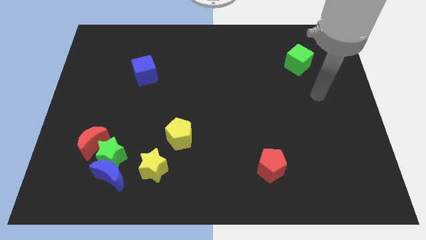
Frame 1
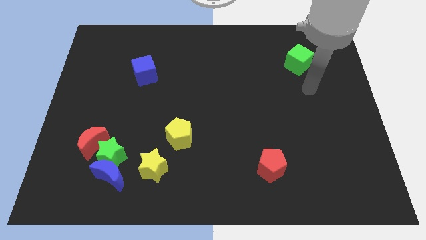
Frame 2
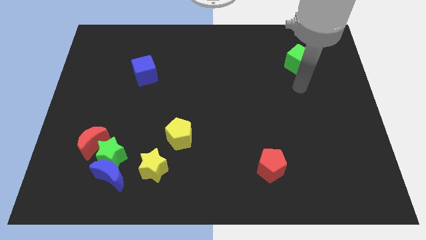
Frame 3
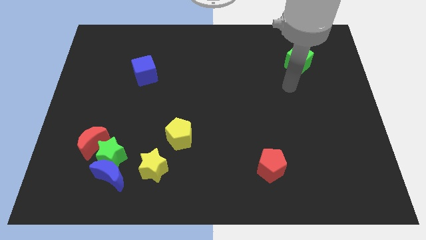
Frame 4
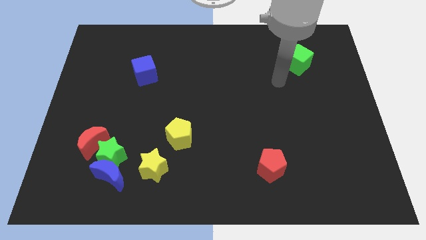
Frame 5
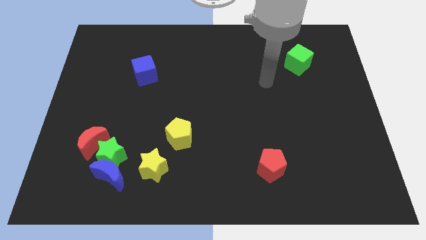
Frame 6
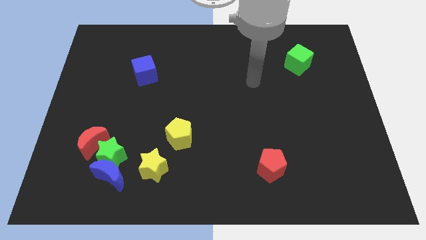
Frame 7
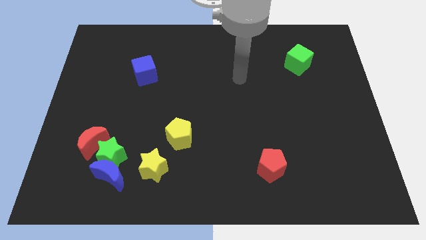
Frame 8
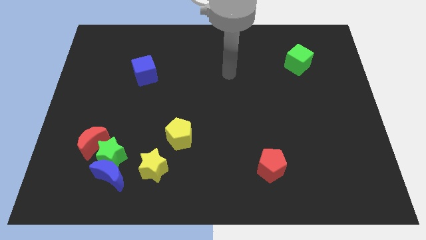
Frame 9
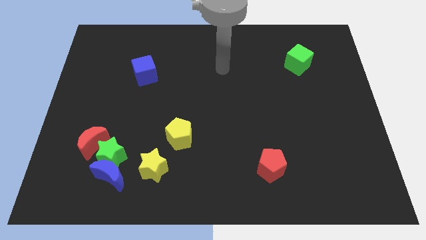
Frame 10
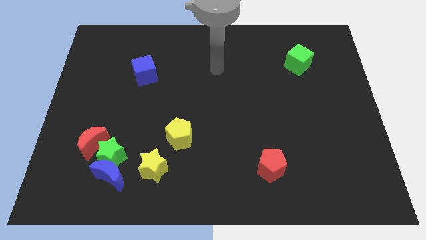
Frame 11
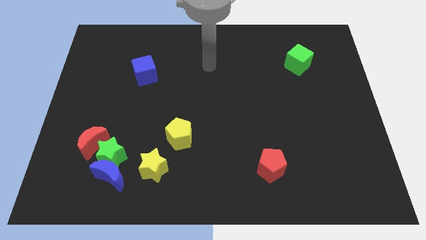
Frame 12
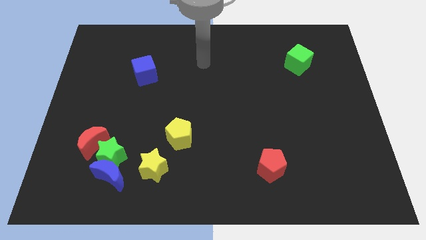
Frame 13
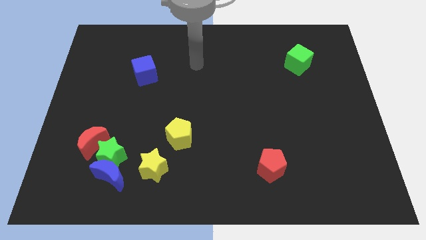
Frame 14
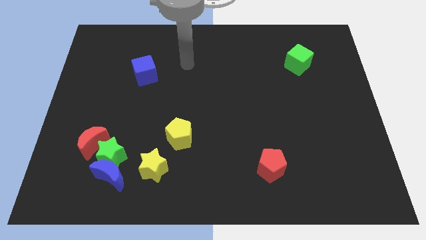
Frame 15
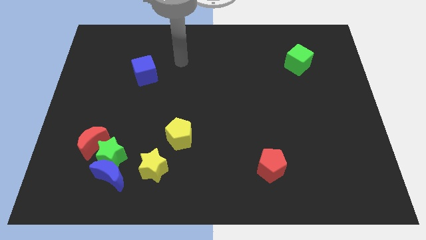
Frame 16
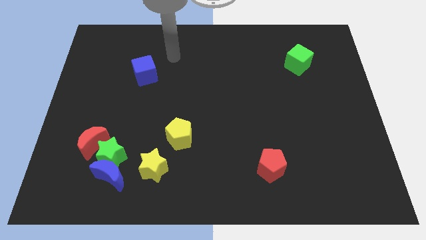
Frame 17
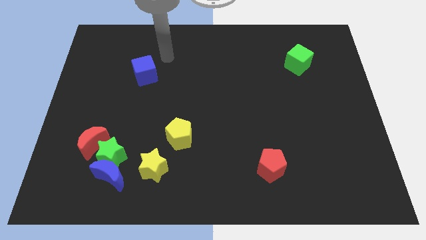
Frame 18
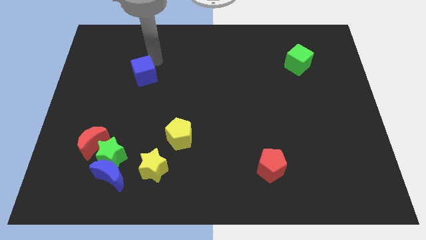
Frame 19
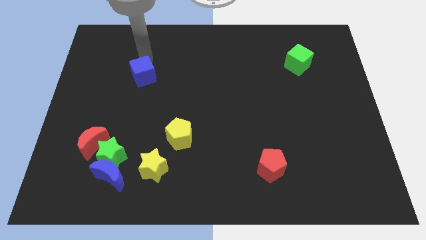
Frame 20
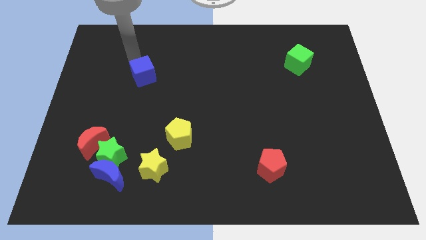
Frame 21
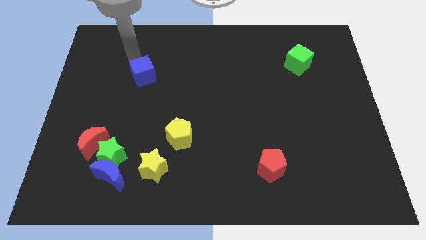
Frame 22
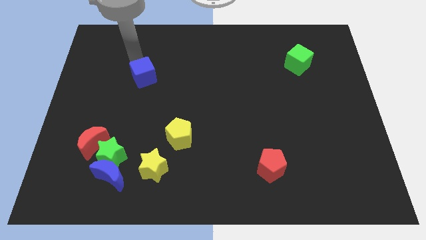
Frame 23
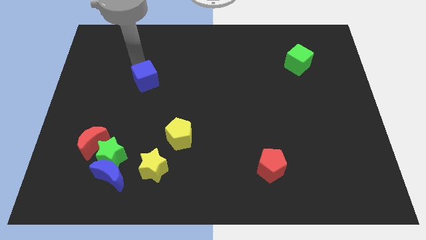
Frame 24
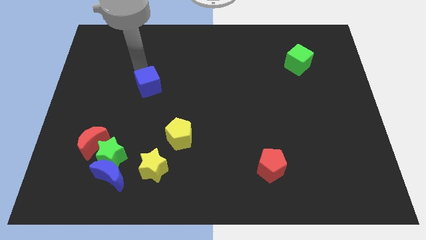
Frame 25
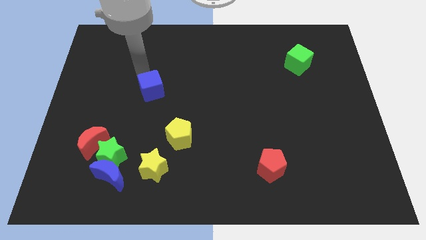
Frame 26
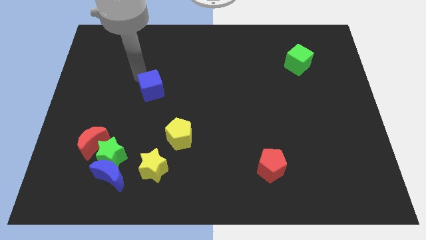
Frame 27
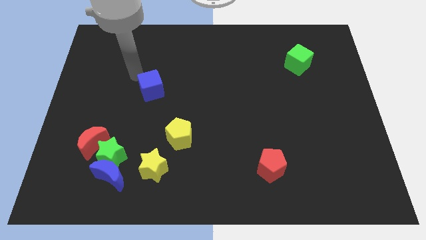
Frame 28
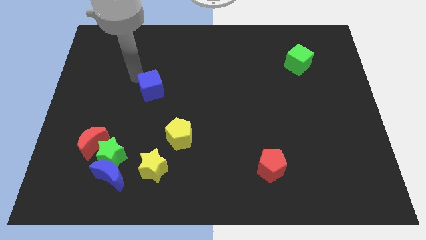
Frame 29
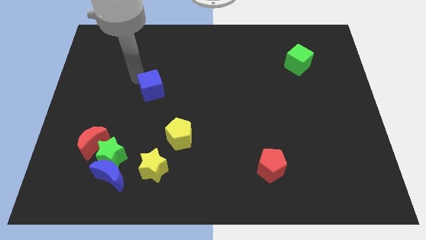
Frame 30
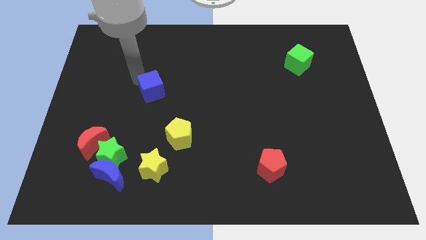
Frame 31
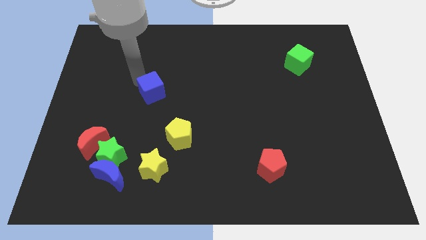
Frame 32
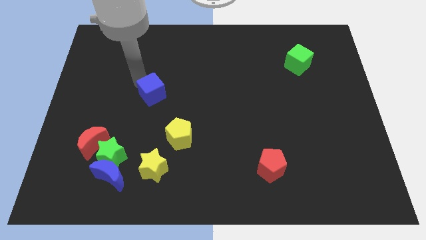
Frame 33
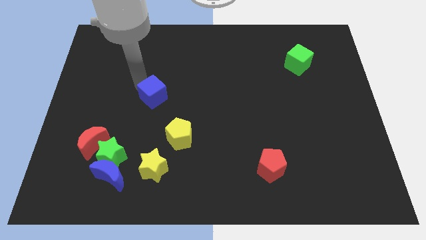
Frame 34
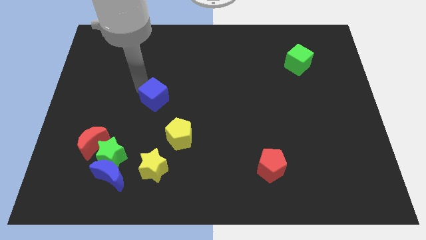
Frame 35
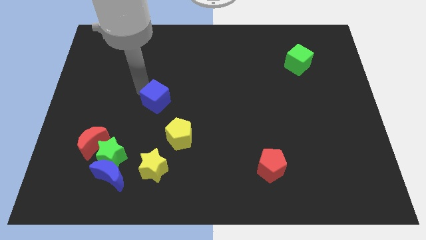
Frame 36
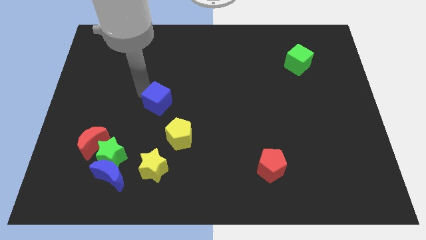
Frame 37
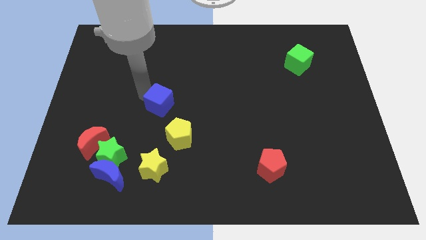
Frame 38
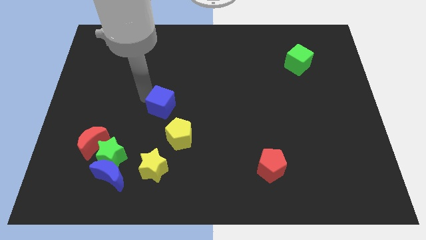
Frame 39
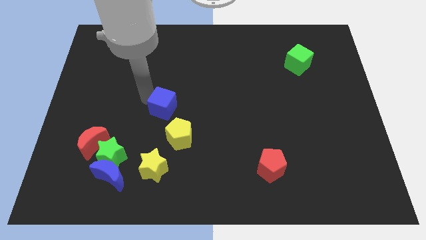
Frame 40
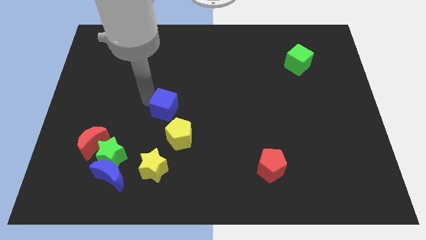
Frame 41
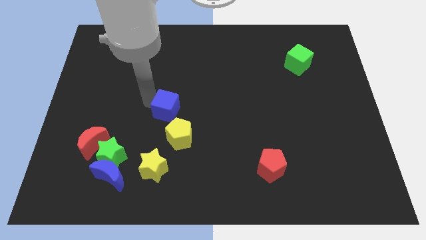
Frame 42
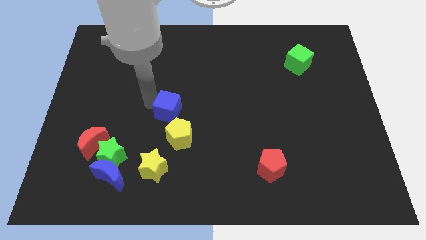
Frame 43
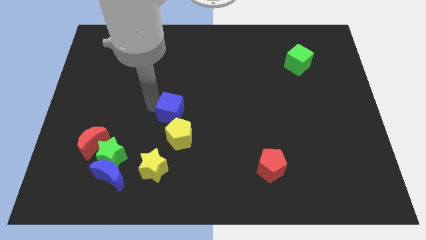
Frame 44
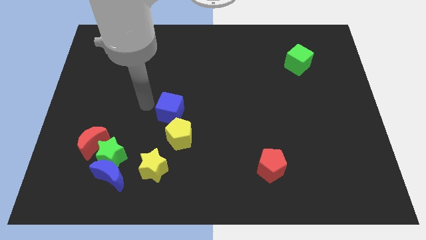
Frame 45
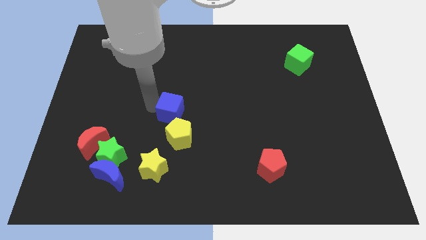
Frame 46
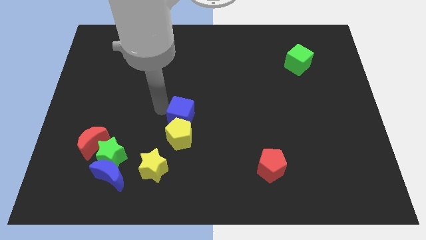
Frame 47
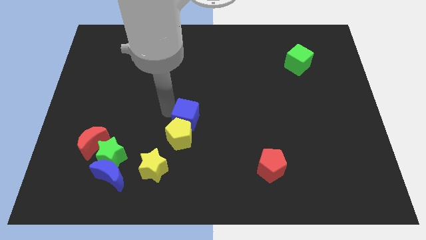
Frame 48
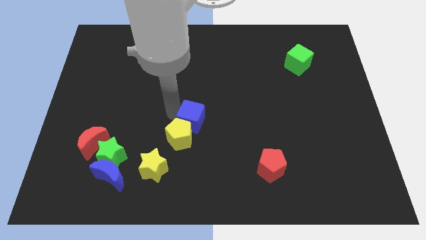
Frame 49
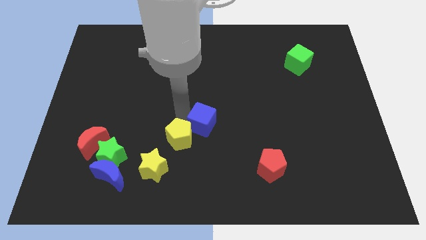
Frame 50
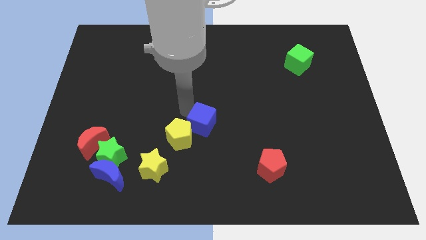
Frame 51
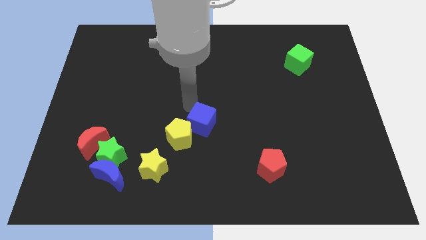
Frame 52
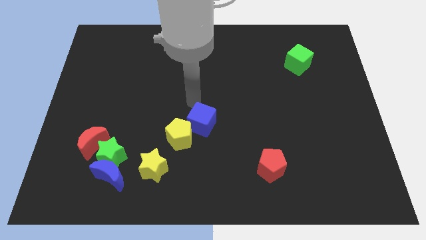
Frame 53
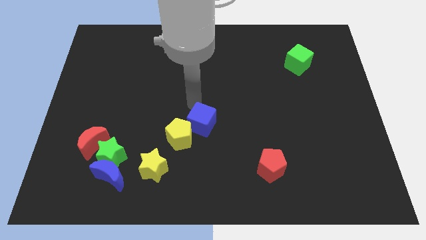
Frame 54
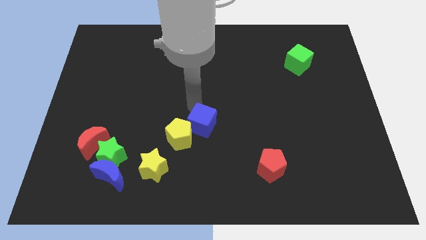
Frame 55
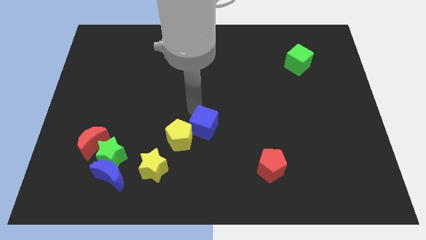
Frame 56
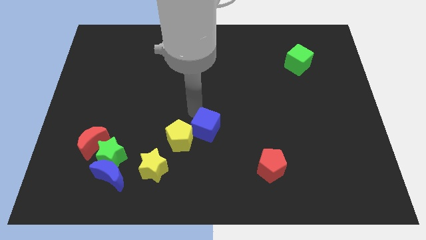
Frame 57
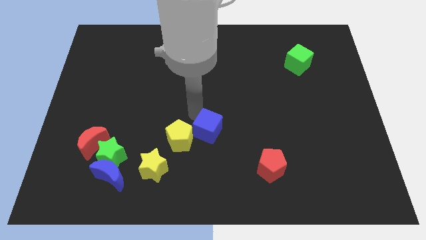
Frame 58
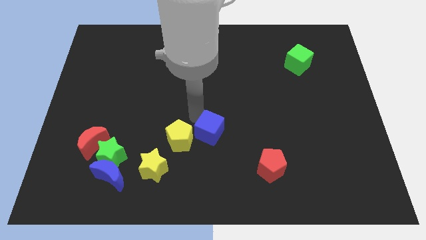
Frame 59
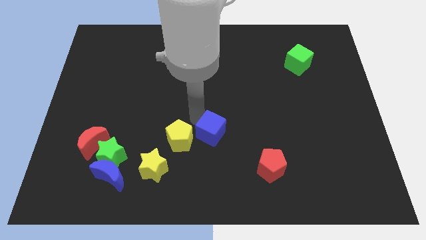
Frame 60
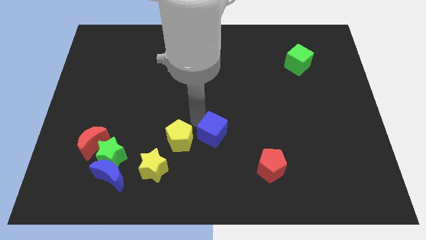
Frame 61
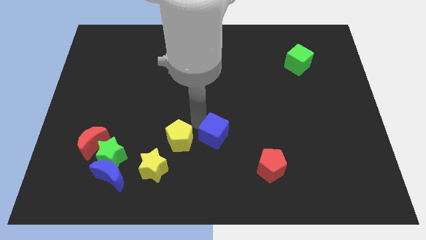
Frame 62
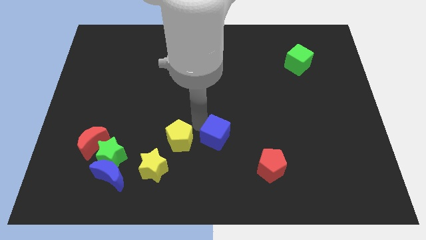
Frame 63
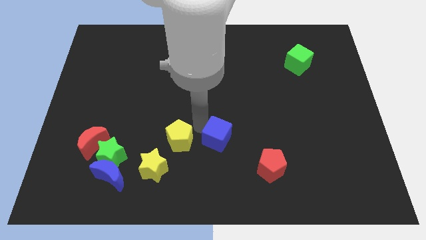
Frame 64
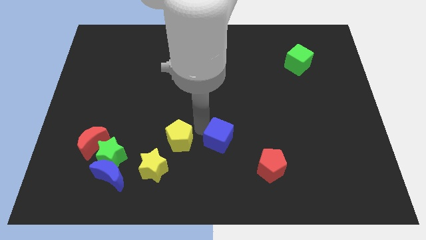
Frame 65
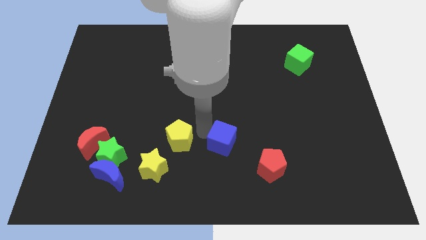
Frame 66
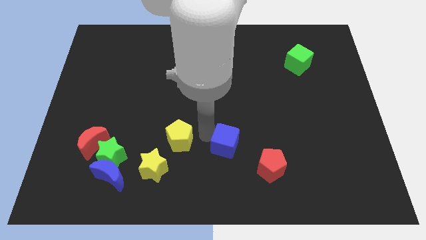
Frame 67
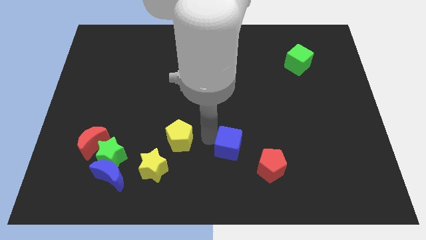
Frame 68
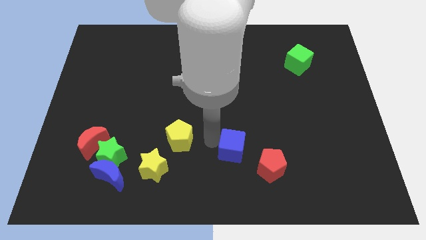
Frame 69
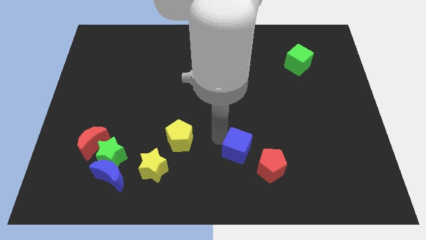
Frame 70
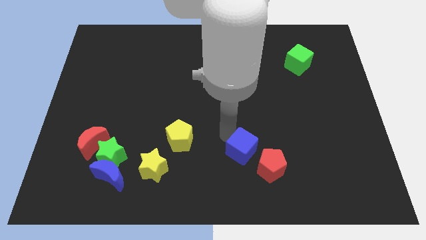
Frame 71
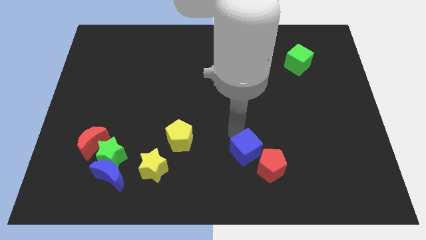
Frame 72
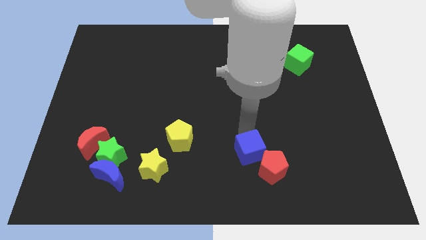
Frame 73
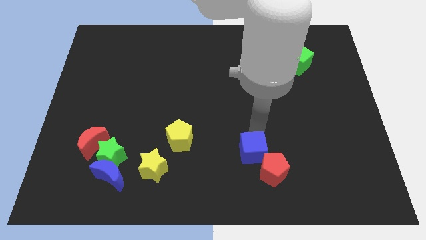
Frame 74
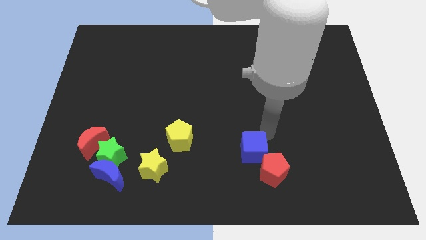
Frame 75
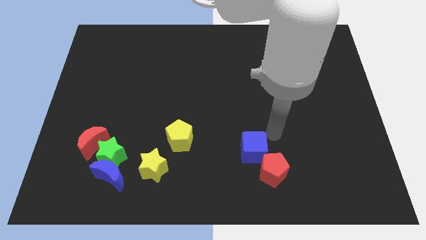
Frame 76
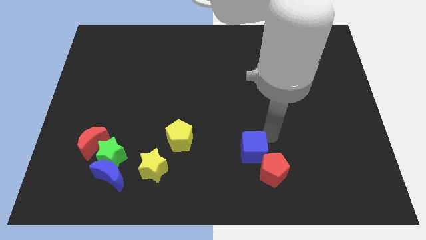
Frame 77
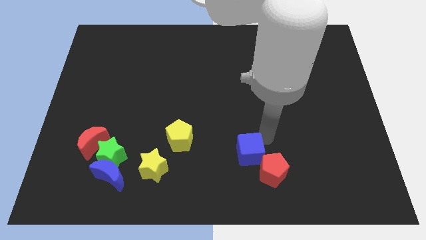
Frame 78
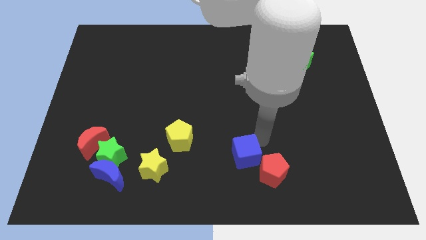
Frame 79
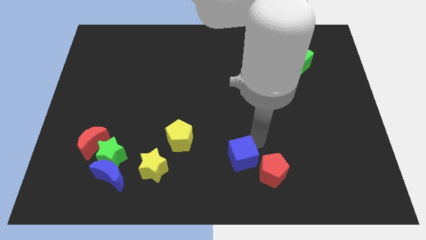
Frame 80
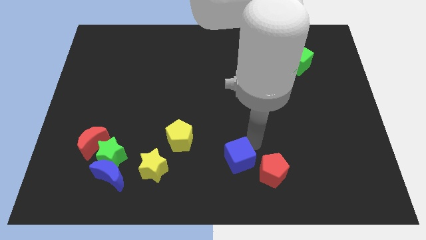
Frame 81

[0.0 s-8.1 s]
move the blue cube to the bottom
